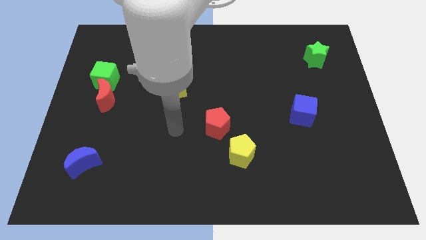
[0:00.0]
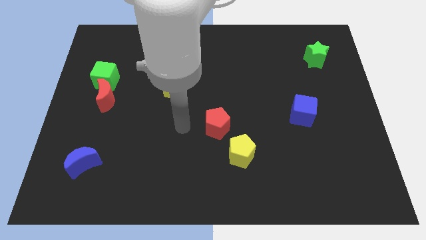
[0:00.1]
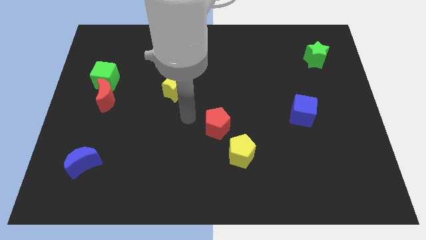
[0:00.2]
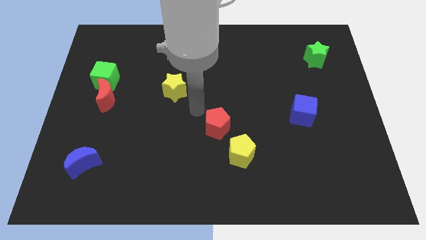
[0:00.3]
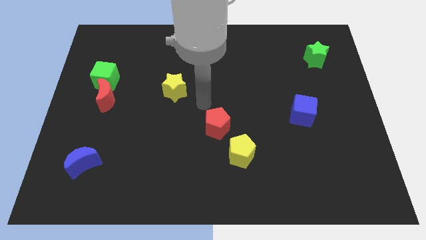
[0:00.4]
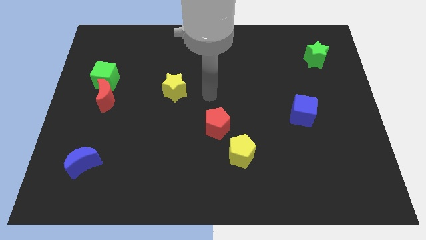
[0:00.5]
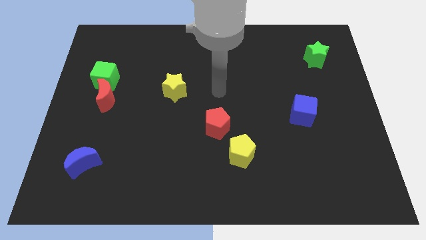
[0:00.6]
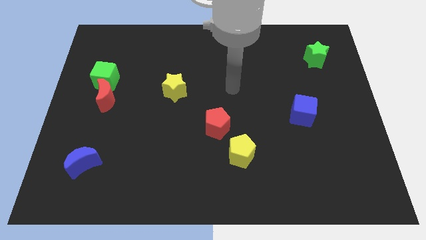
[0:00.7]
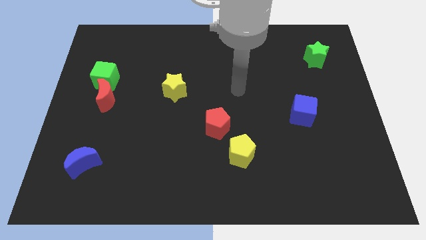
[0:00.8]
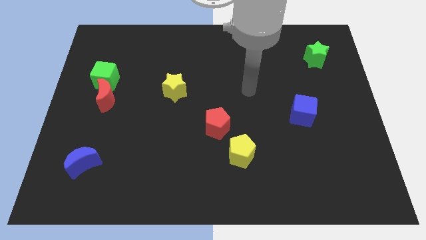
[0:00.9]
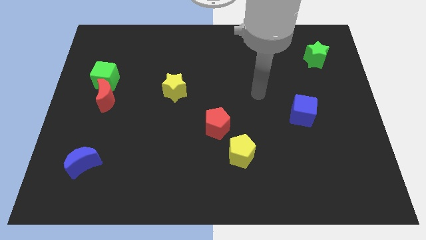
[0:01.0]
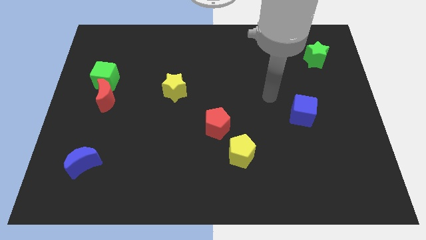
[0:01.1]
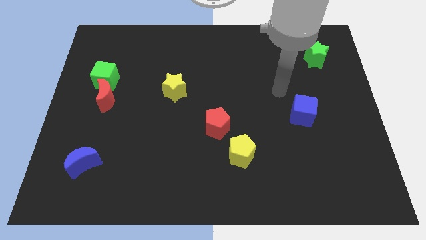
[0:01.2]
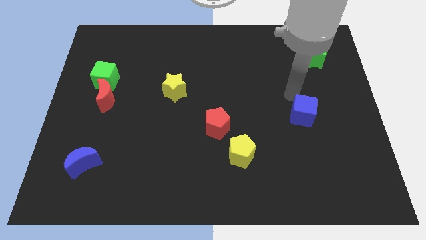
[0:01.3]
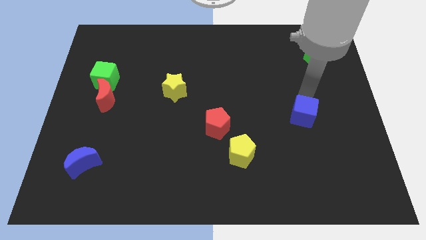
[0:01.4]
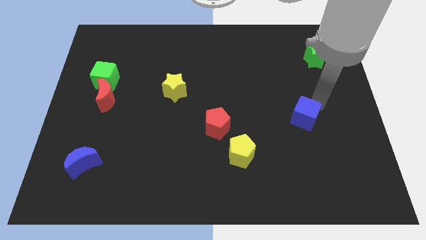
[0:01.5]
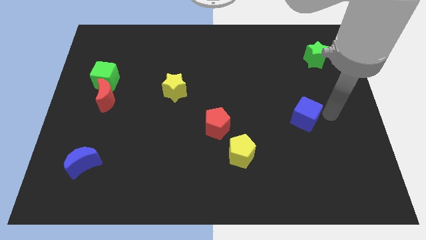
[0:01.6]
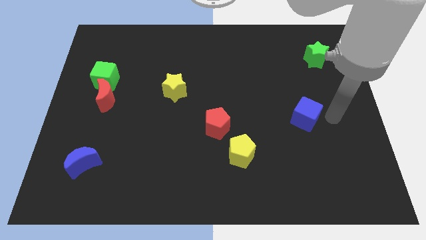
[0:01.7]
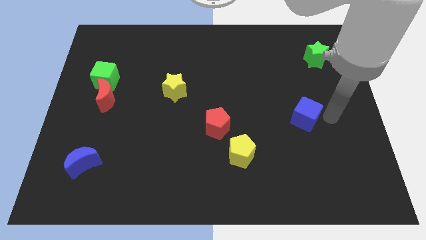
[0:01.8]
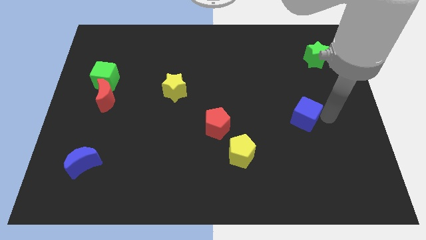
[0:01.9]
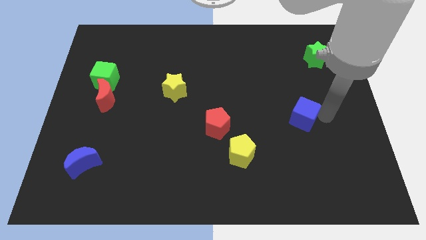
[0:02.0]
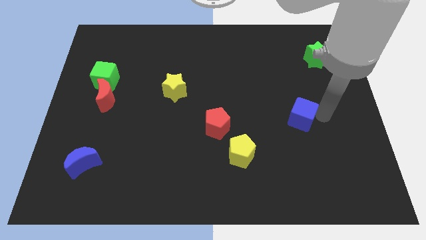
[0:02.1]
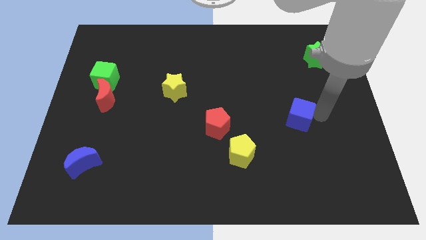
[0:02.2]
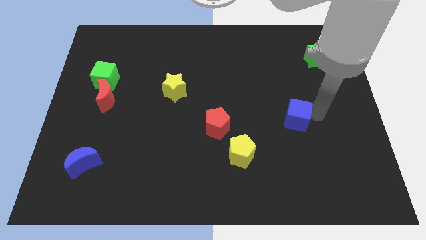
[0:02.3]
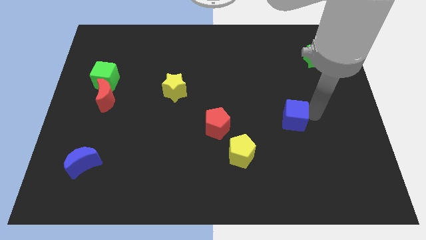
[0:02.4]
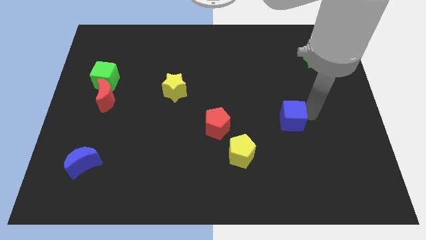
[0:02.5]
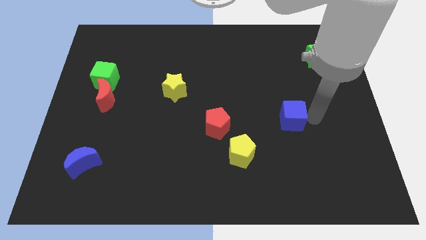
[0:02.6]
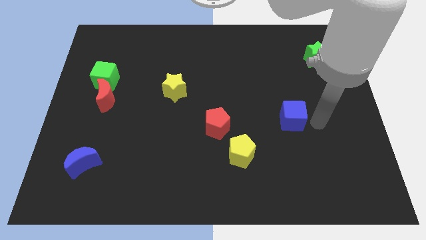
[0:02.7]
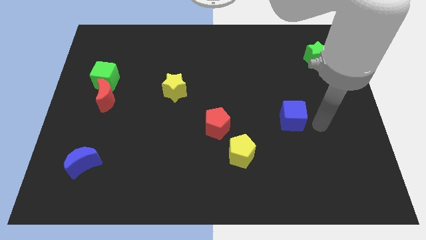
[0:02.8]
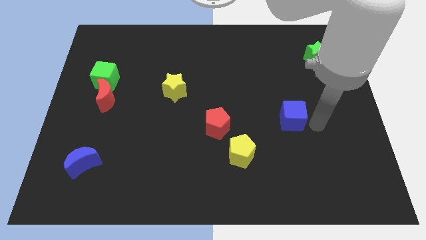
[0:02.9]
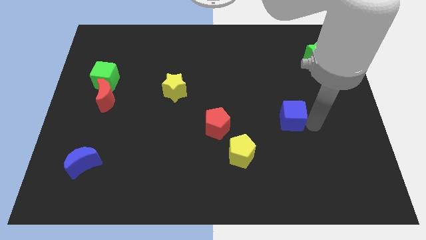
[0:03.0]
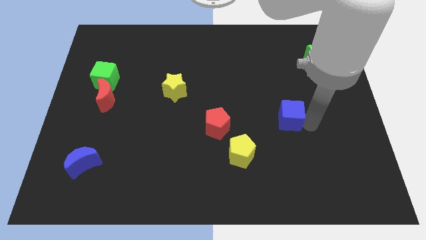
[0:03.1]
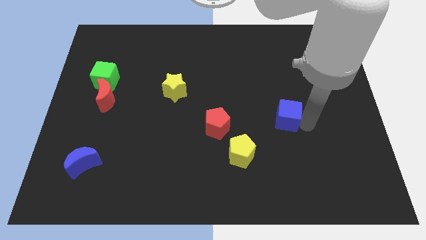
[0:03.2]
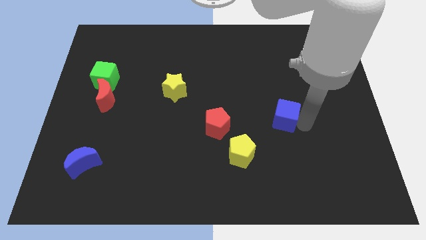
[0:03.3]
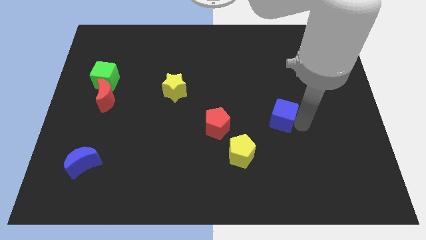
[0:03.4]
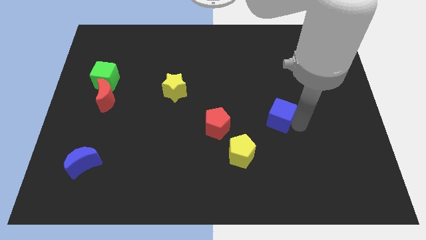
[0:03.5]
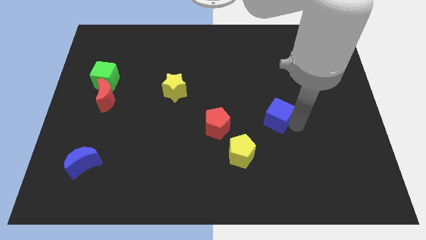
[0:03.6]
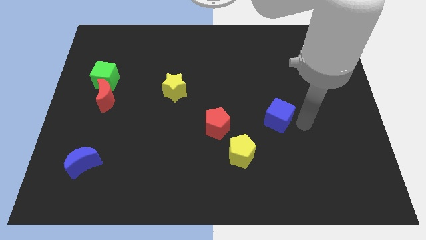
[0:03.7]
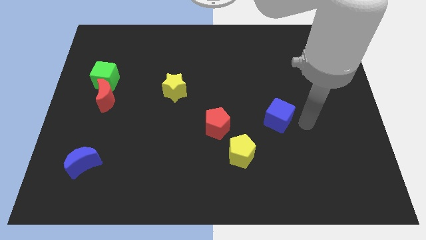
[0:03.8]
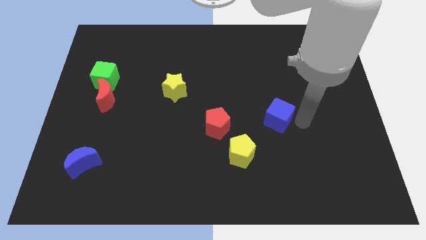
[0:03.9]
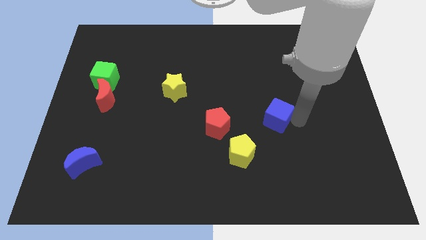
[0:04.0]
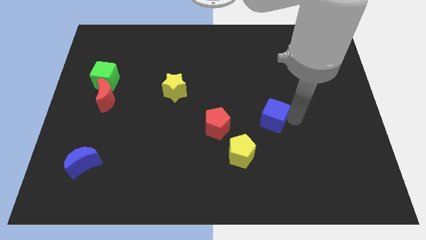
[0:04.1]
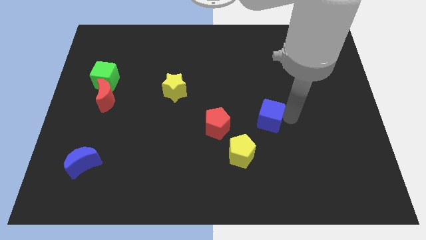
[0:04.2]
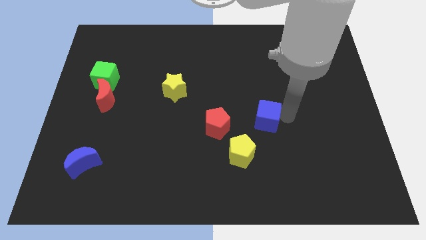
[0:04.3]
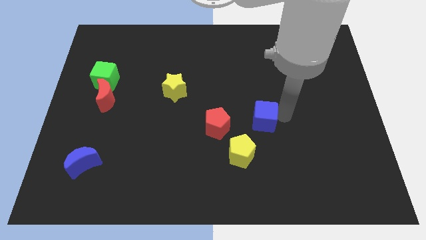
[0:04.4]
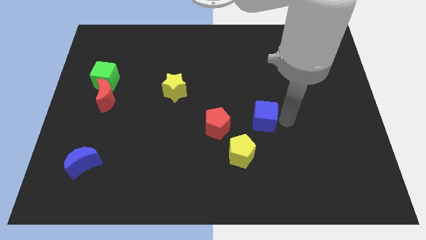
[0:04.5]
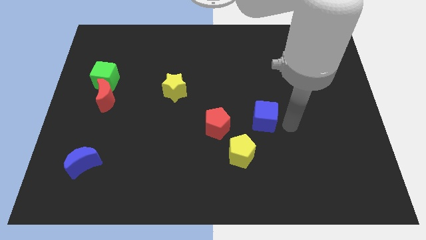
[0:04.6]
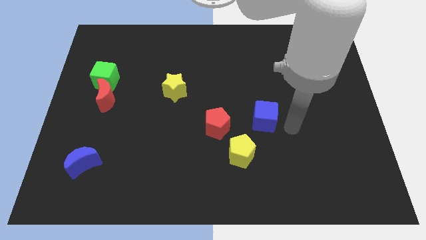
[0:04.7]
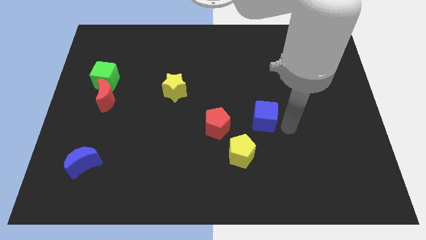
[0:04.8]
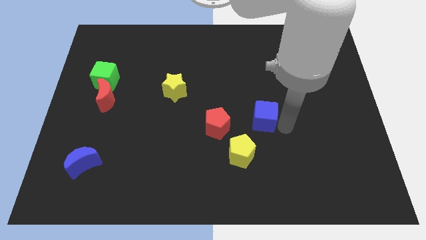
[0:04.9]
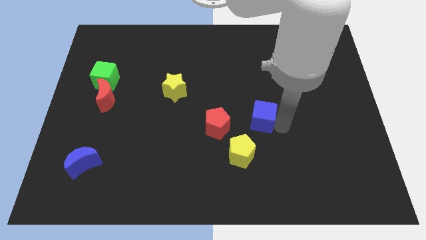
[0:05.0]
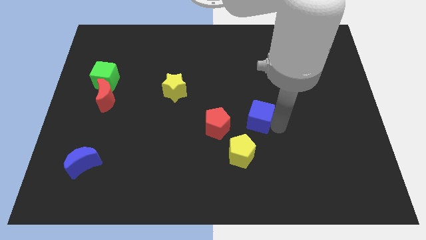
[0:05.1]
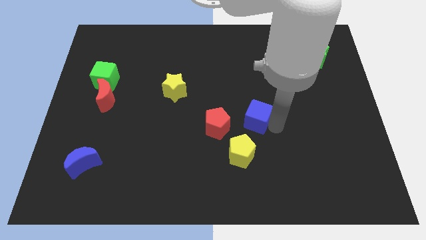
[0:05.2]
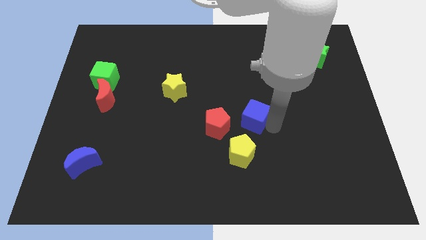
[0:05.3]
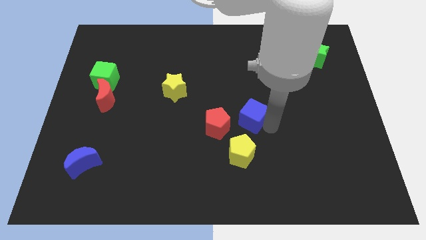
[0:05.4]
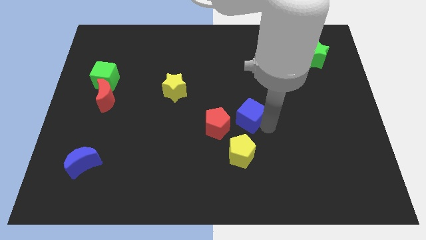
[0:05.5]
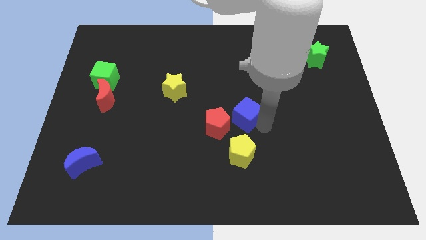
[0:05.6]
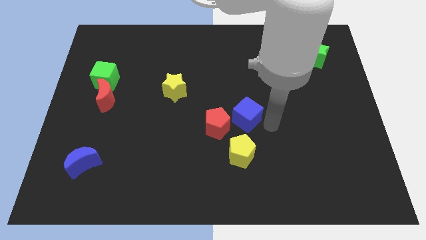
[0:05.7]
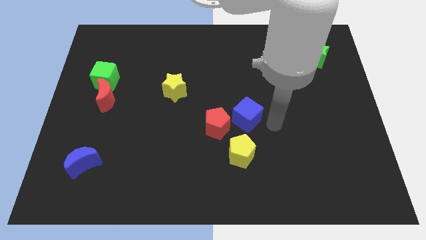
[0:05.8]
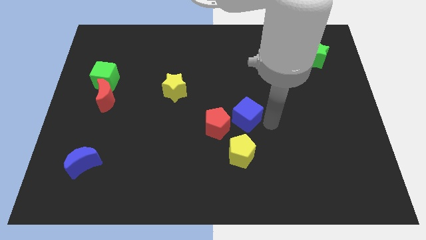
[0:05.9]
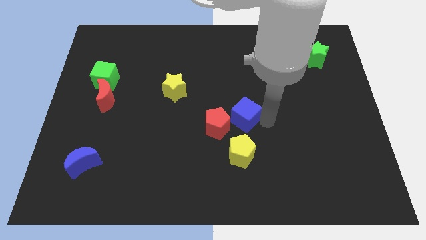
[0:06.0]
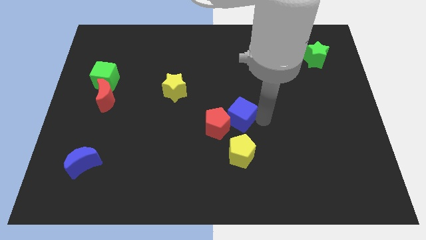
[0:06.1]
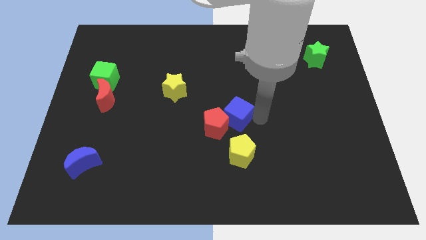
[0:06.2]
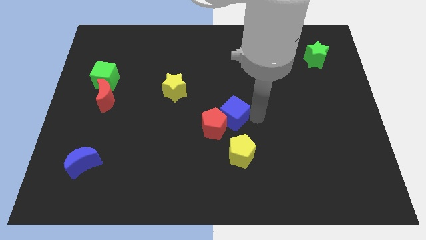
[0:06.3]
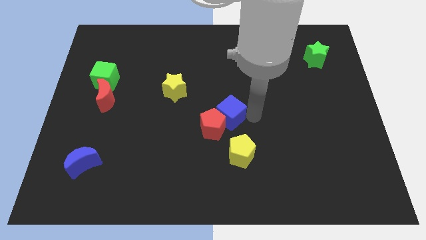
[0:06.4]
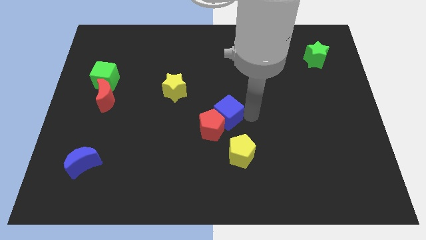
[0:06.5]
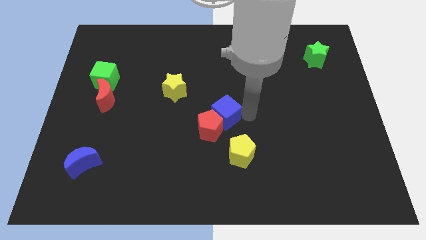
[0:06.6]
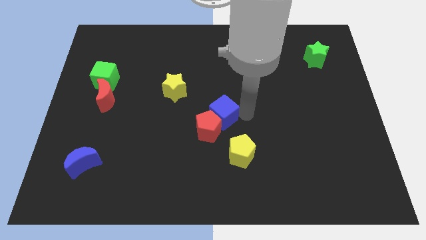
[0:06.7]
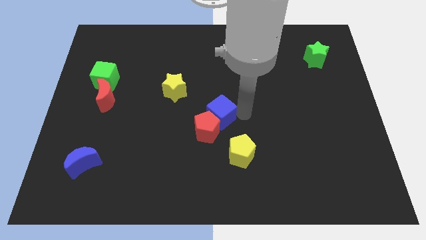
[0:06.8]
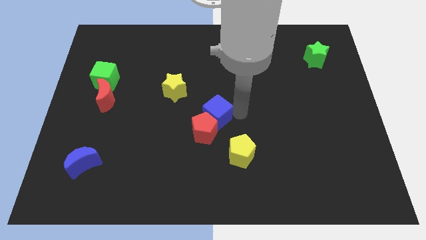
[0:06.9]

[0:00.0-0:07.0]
push the blue cube left

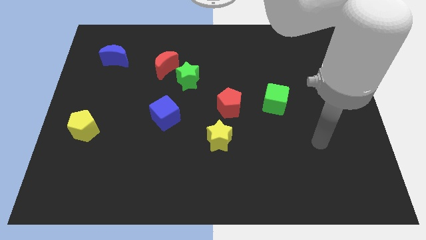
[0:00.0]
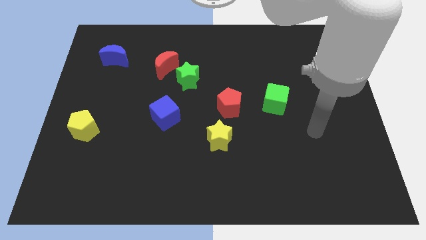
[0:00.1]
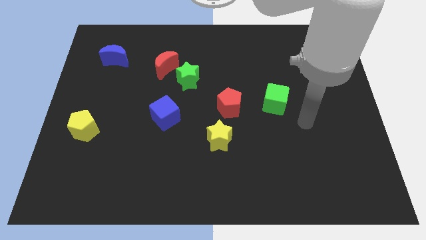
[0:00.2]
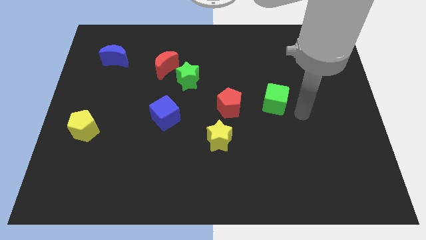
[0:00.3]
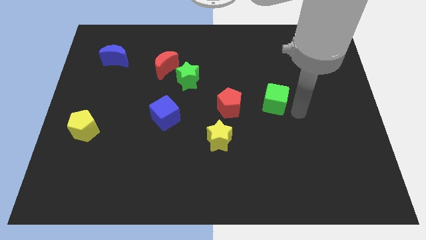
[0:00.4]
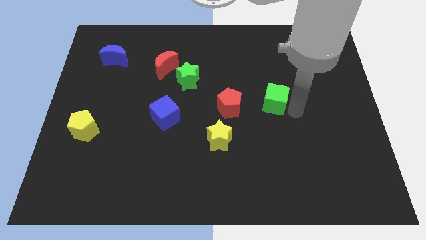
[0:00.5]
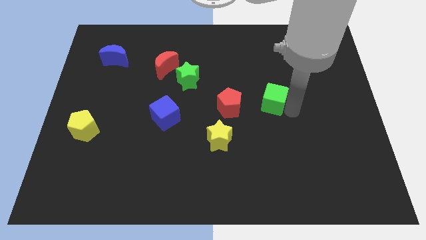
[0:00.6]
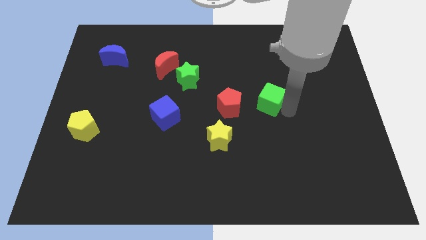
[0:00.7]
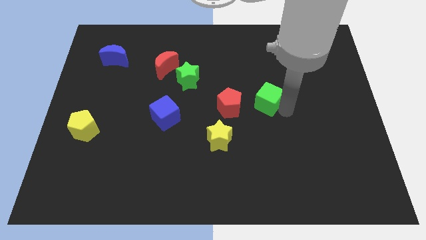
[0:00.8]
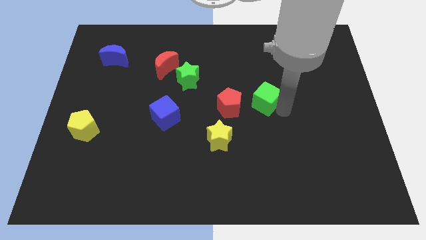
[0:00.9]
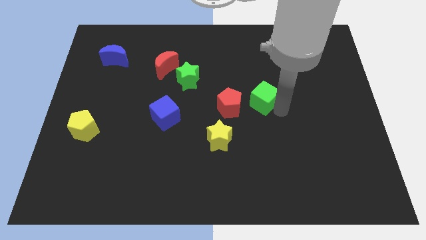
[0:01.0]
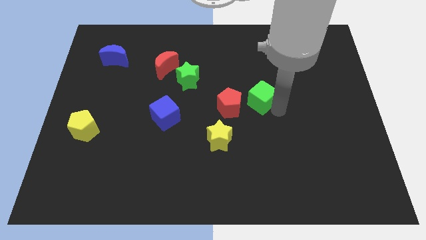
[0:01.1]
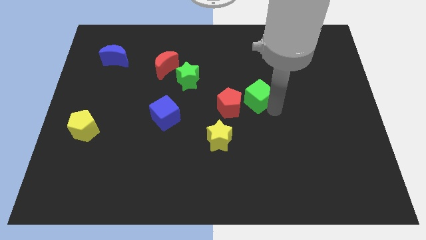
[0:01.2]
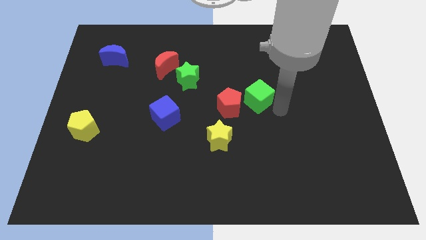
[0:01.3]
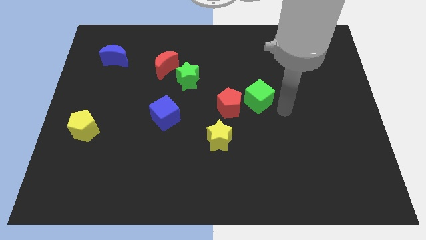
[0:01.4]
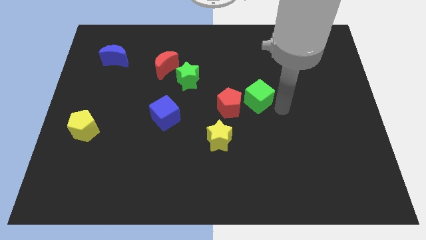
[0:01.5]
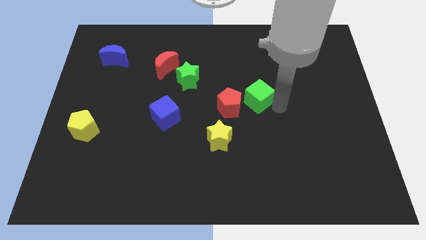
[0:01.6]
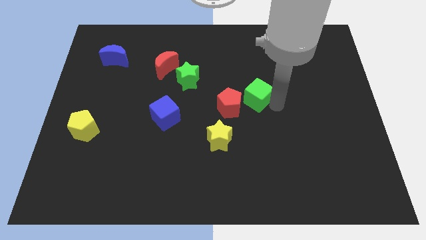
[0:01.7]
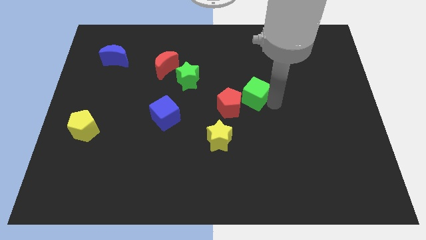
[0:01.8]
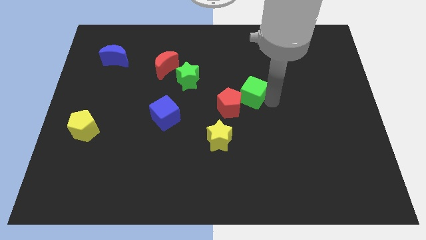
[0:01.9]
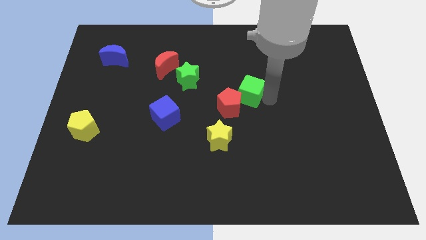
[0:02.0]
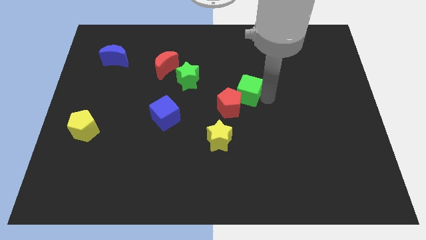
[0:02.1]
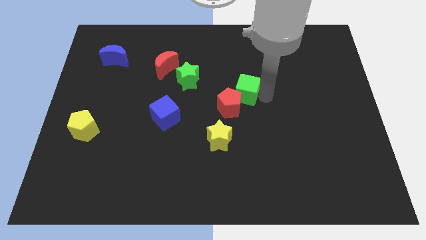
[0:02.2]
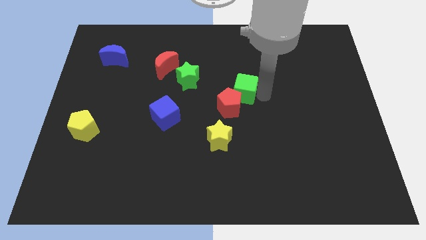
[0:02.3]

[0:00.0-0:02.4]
push the green cube to the left a little
